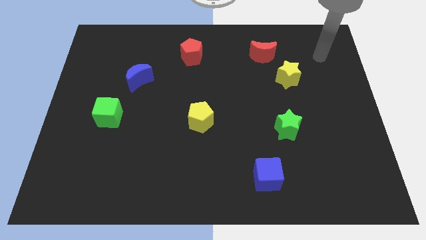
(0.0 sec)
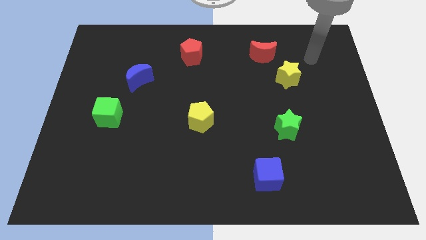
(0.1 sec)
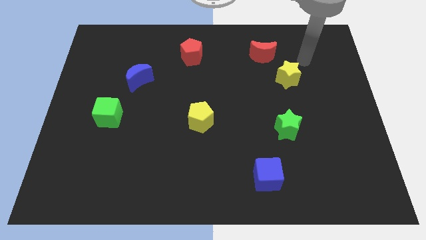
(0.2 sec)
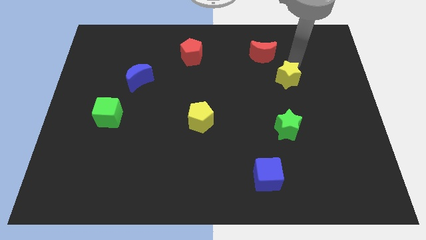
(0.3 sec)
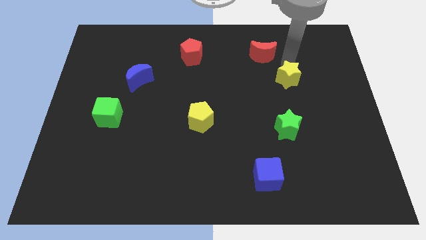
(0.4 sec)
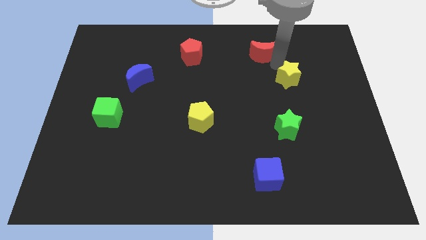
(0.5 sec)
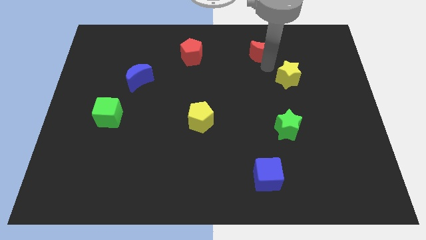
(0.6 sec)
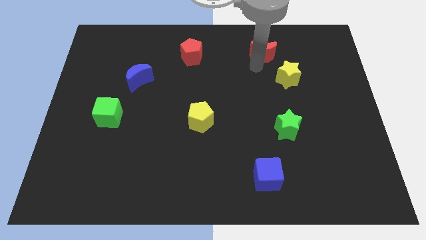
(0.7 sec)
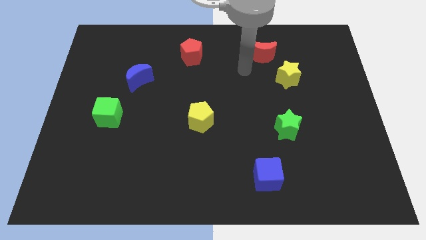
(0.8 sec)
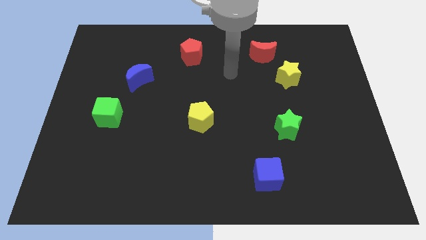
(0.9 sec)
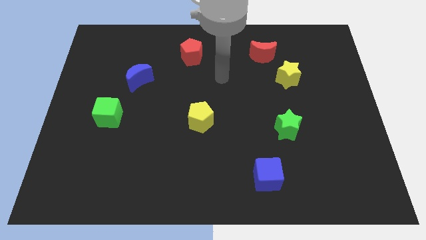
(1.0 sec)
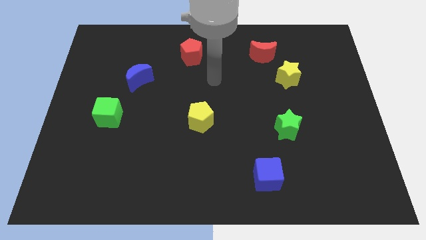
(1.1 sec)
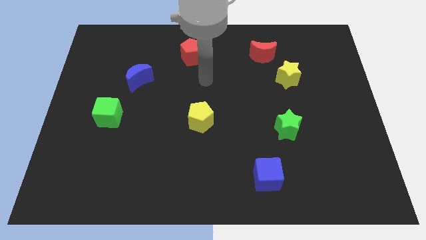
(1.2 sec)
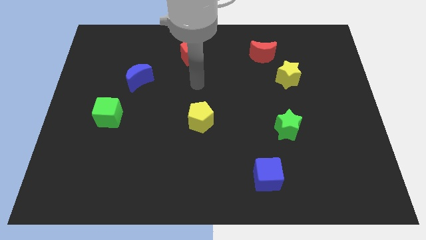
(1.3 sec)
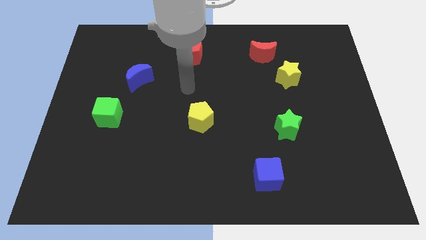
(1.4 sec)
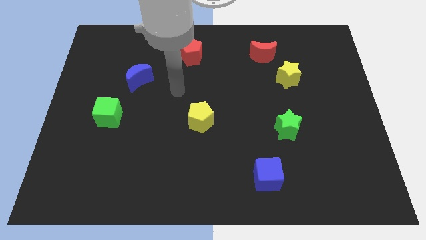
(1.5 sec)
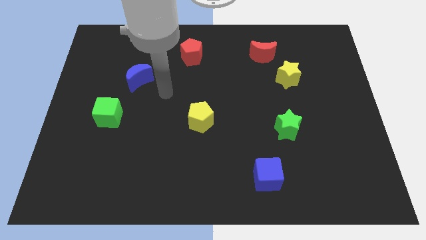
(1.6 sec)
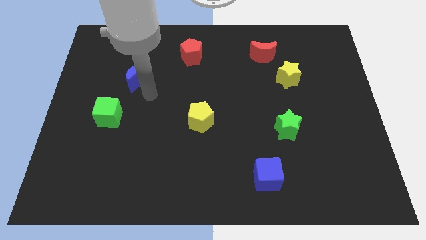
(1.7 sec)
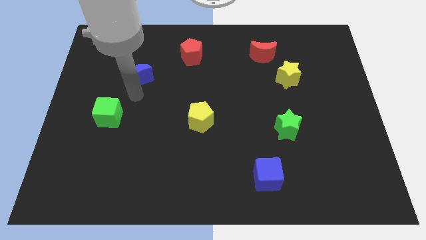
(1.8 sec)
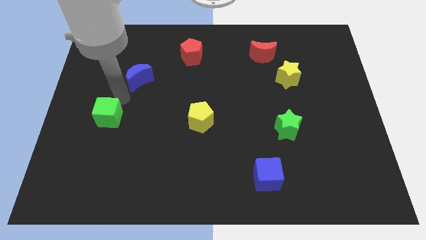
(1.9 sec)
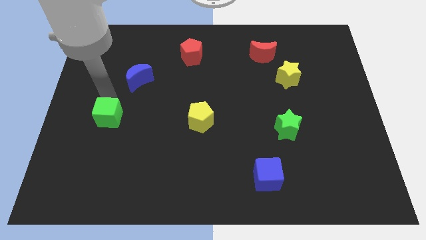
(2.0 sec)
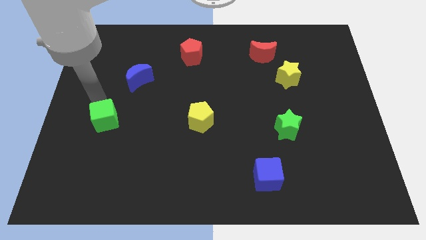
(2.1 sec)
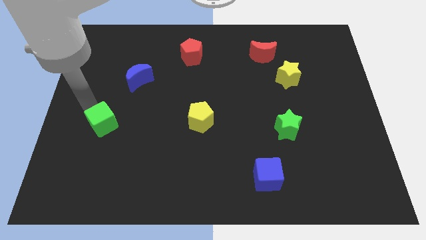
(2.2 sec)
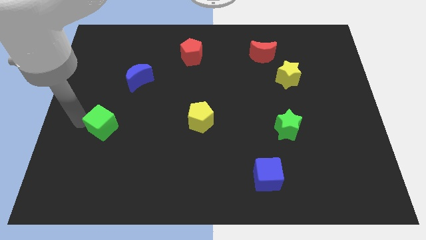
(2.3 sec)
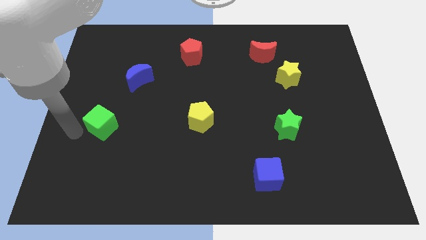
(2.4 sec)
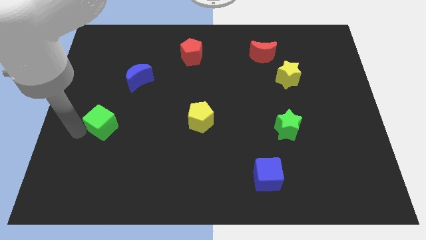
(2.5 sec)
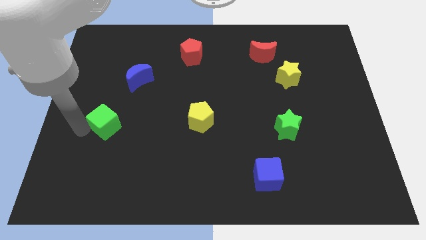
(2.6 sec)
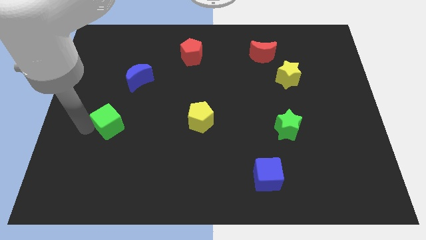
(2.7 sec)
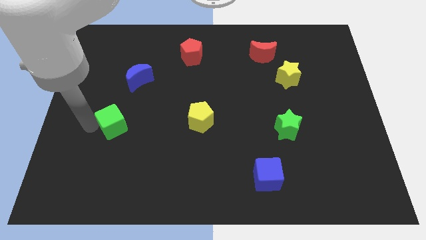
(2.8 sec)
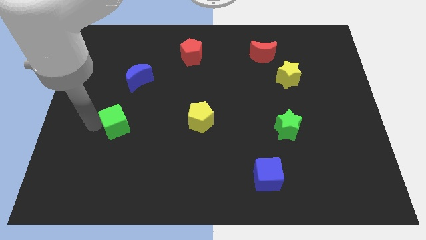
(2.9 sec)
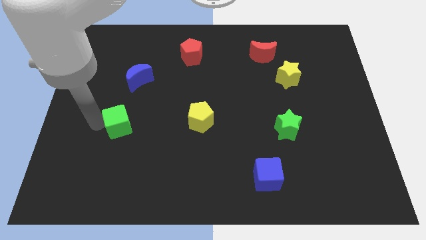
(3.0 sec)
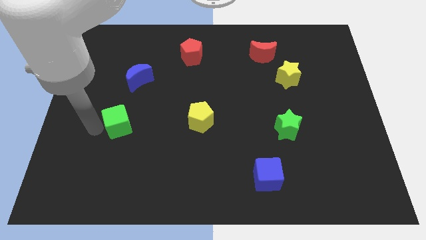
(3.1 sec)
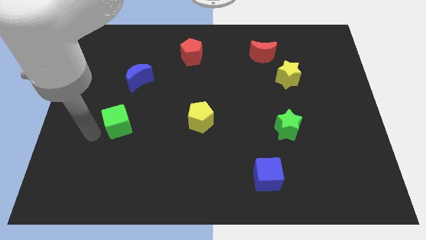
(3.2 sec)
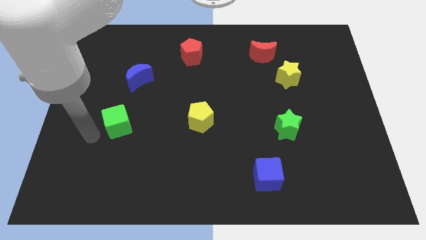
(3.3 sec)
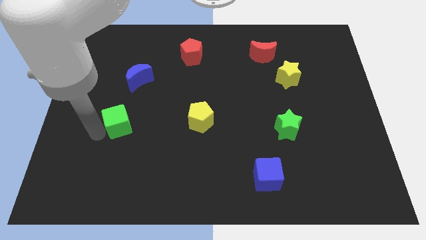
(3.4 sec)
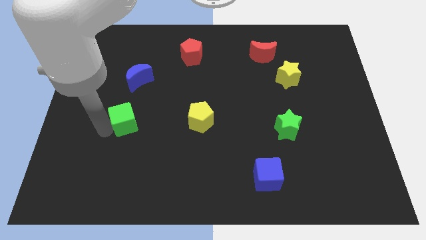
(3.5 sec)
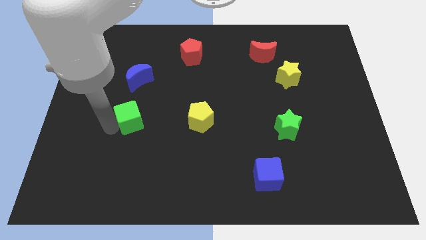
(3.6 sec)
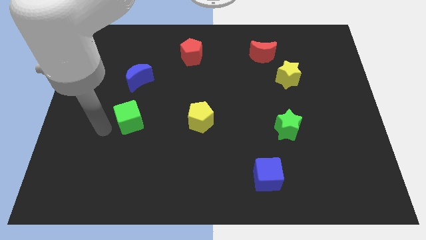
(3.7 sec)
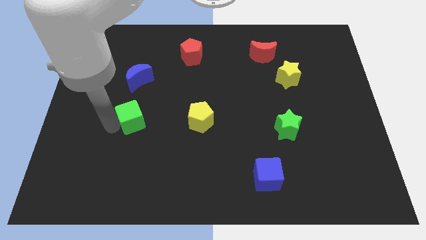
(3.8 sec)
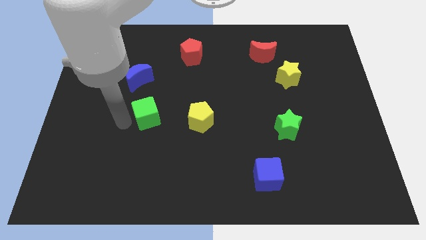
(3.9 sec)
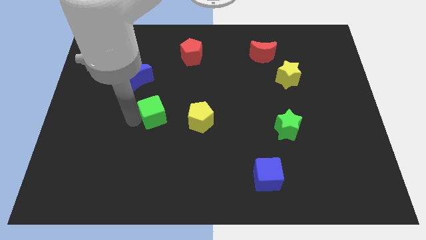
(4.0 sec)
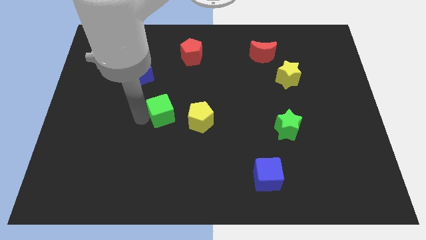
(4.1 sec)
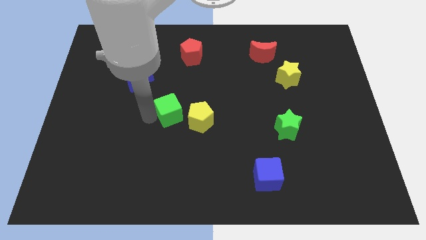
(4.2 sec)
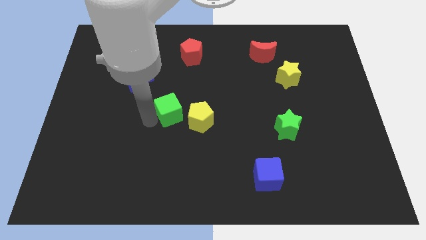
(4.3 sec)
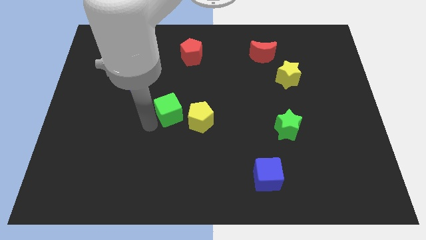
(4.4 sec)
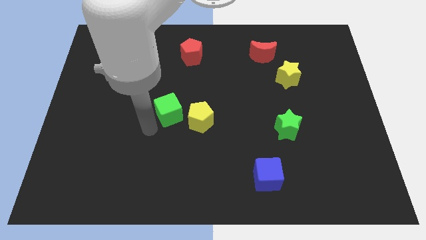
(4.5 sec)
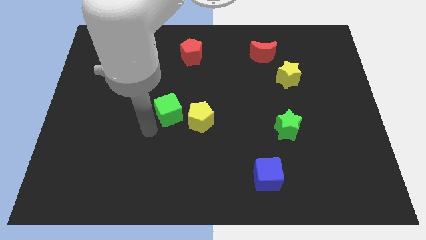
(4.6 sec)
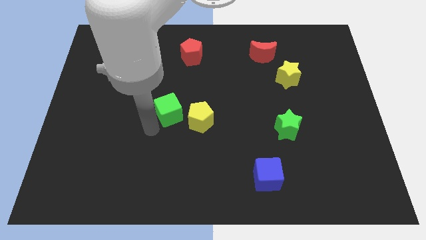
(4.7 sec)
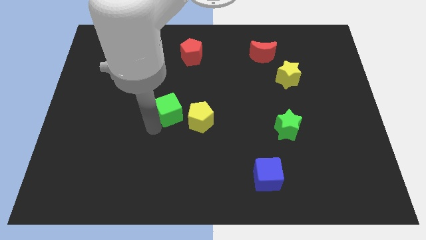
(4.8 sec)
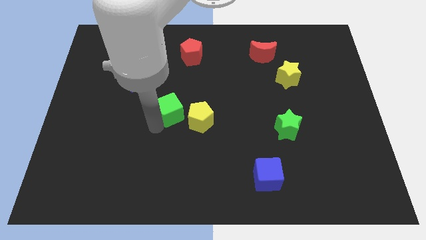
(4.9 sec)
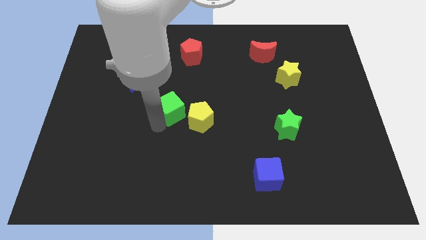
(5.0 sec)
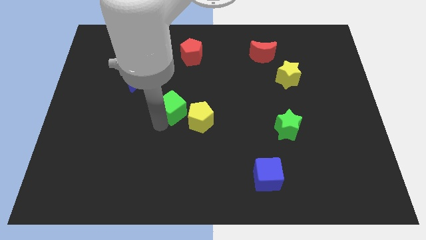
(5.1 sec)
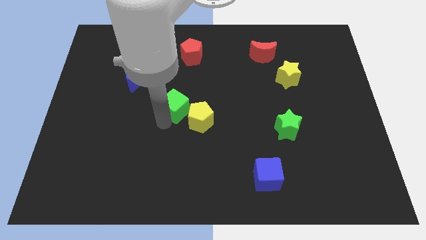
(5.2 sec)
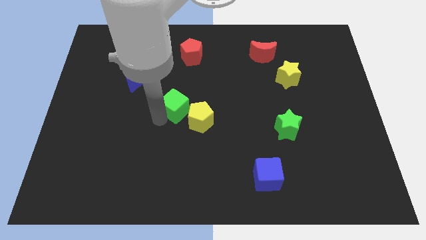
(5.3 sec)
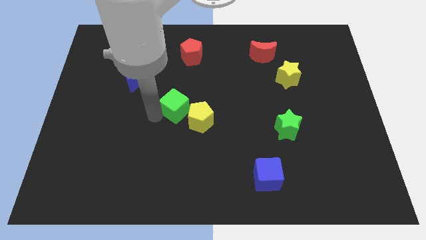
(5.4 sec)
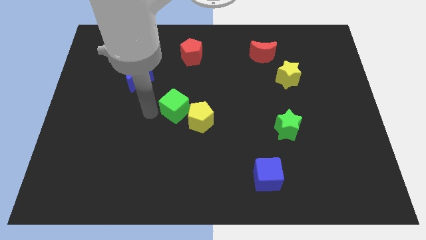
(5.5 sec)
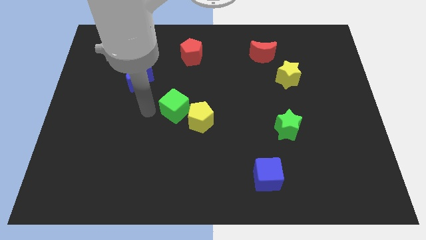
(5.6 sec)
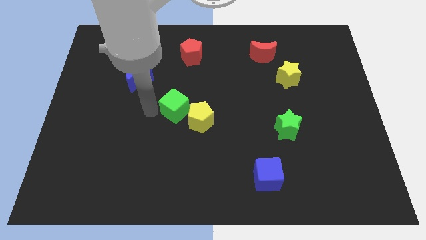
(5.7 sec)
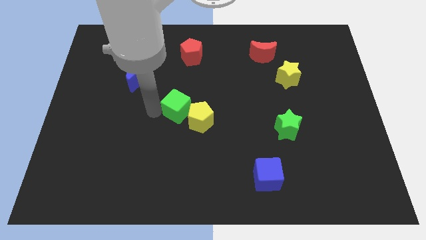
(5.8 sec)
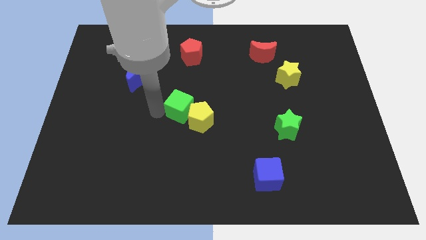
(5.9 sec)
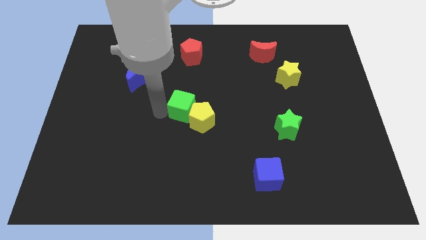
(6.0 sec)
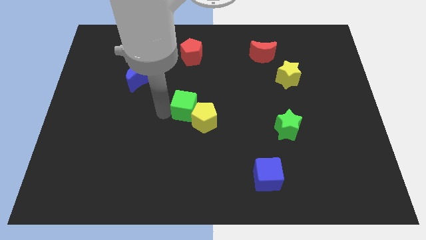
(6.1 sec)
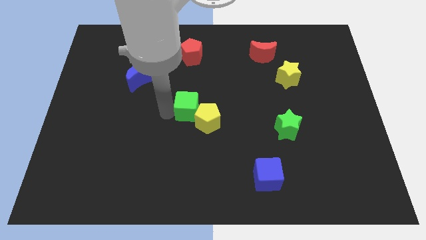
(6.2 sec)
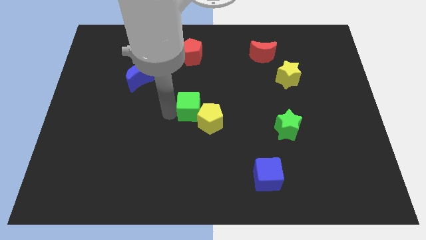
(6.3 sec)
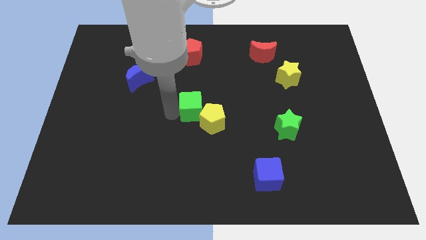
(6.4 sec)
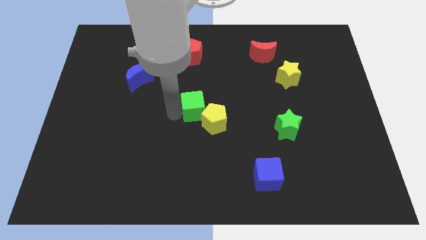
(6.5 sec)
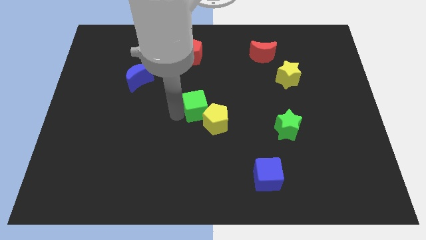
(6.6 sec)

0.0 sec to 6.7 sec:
push the green cube right

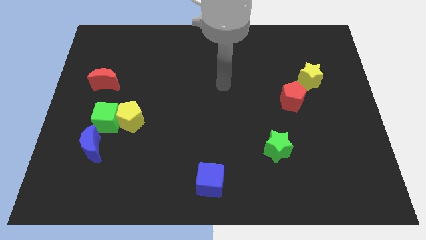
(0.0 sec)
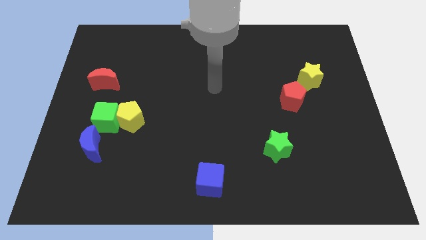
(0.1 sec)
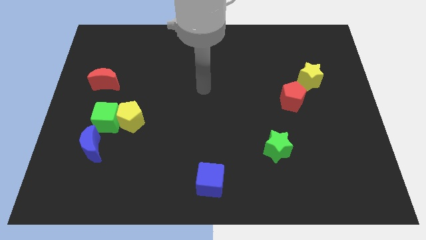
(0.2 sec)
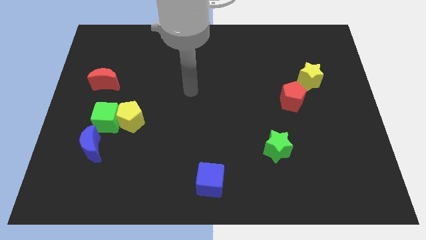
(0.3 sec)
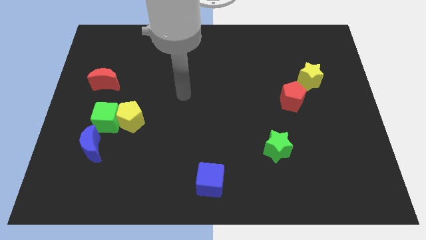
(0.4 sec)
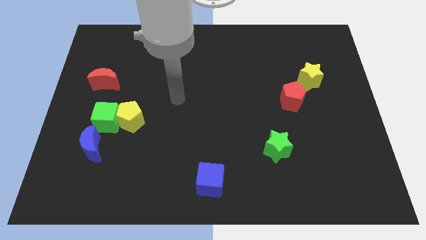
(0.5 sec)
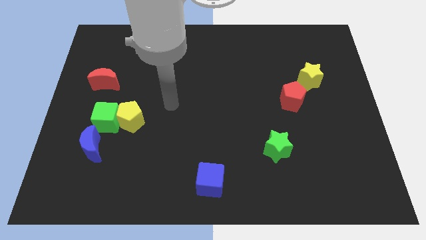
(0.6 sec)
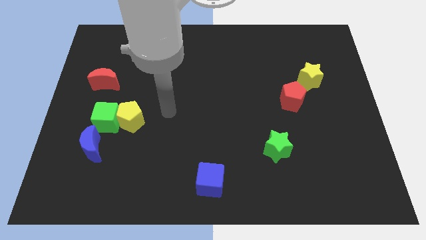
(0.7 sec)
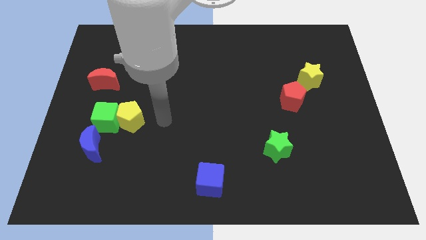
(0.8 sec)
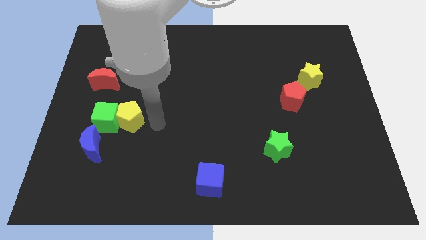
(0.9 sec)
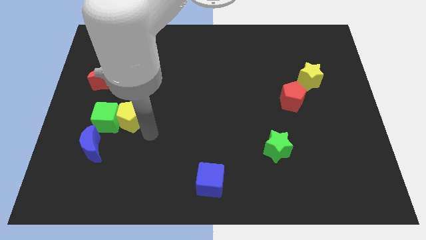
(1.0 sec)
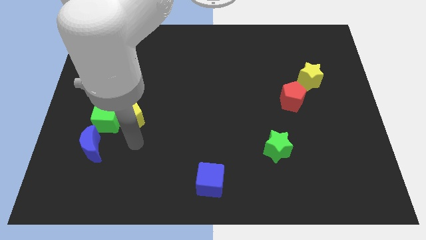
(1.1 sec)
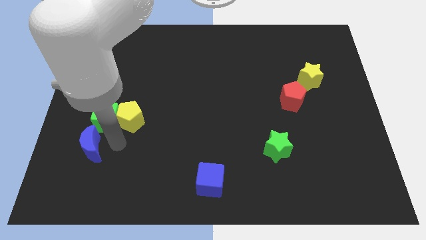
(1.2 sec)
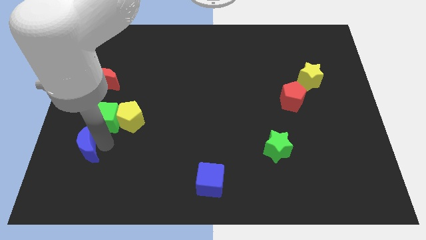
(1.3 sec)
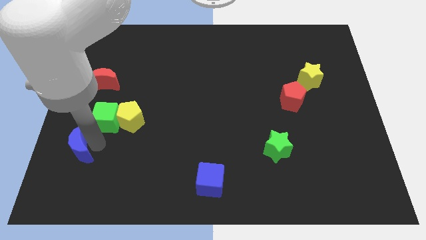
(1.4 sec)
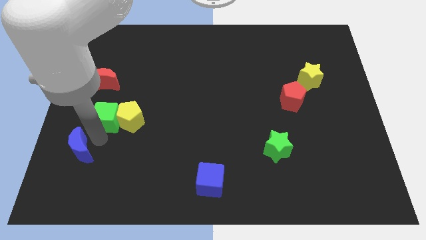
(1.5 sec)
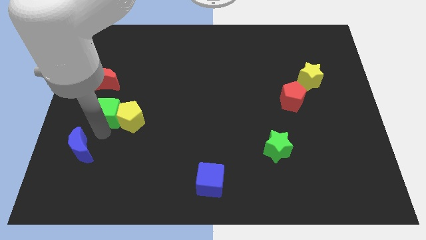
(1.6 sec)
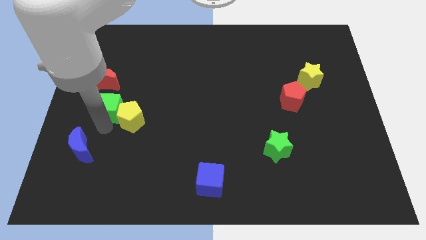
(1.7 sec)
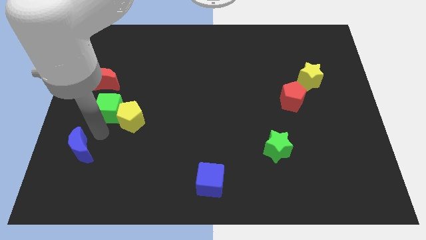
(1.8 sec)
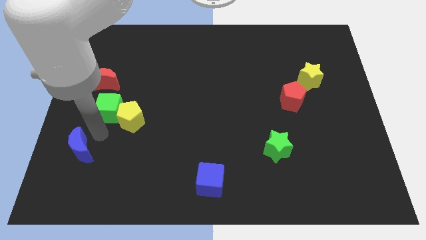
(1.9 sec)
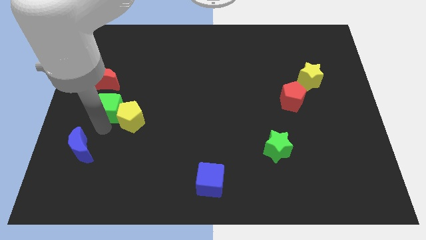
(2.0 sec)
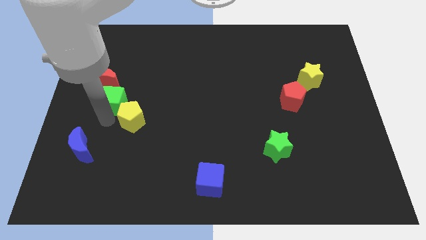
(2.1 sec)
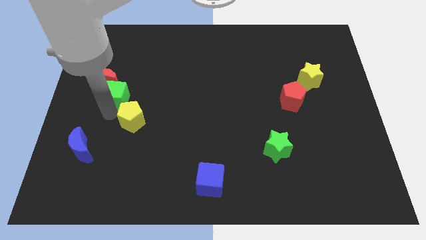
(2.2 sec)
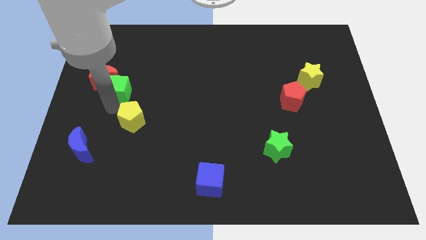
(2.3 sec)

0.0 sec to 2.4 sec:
push the green cube slightly up
